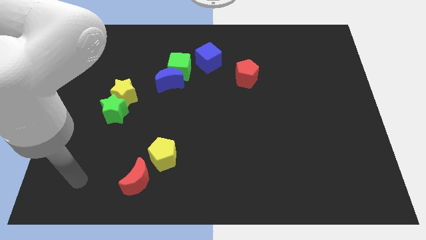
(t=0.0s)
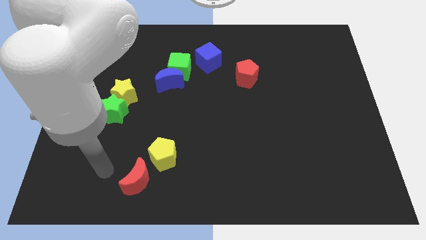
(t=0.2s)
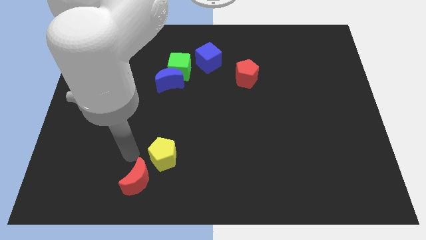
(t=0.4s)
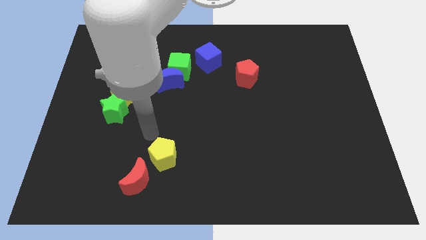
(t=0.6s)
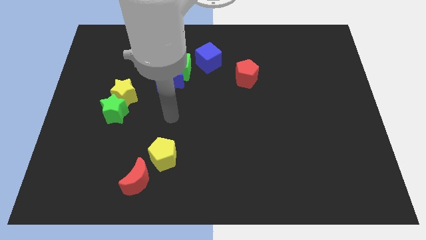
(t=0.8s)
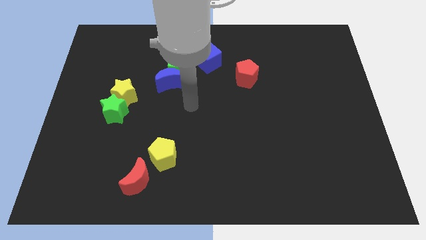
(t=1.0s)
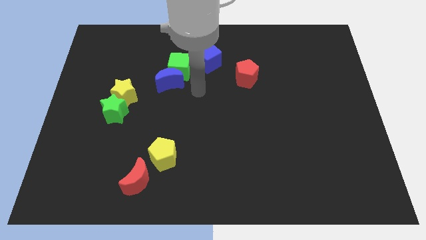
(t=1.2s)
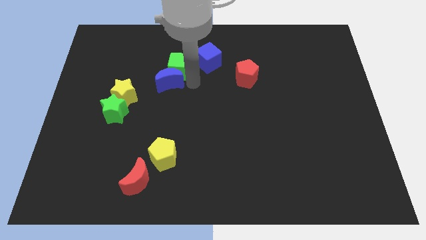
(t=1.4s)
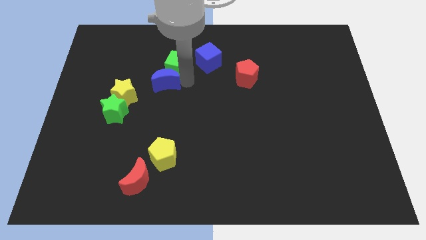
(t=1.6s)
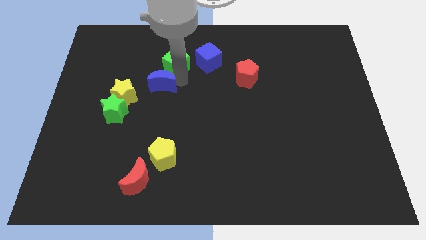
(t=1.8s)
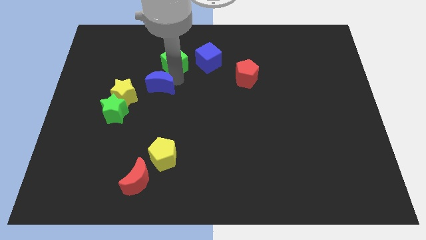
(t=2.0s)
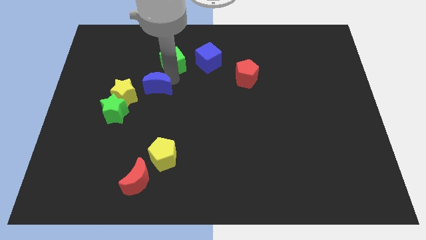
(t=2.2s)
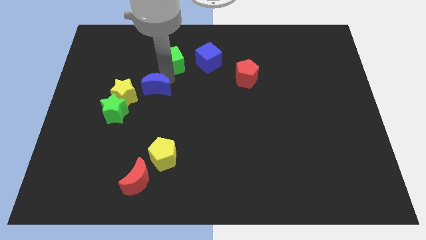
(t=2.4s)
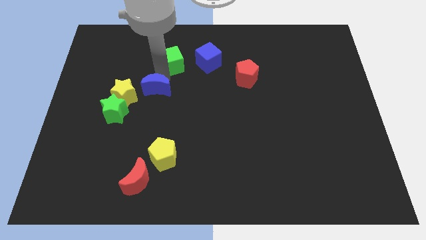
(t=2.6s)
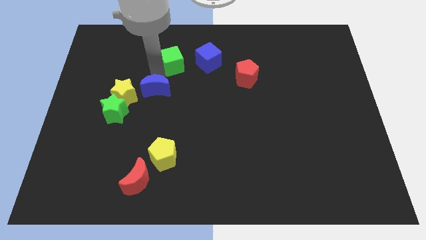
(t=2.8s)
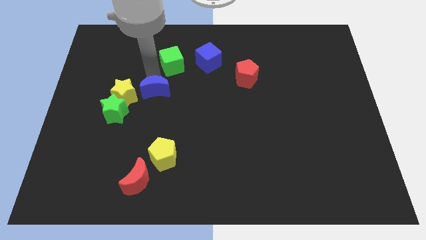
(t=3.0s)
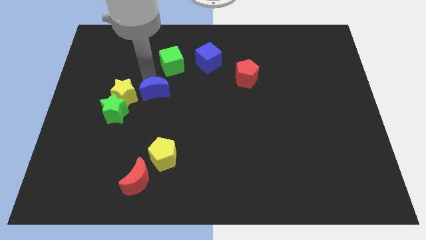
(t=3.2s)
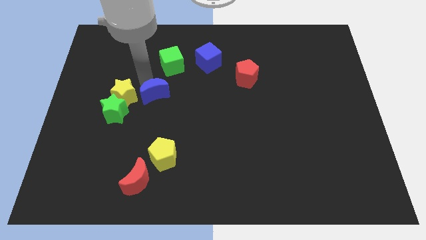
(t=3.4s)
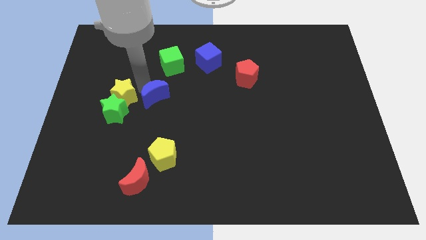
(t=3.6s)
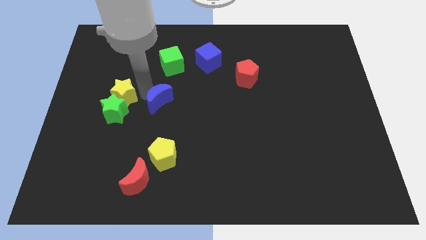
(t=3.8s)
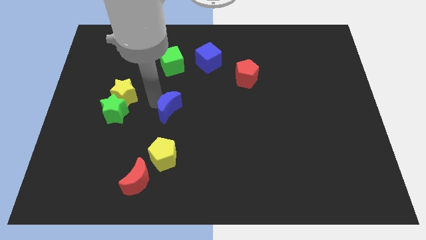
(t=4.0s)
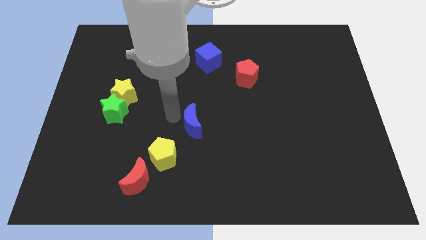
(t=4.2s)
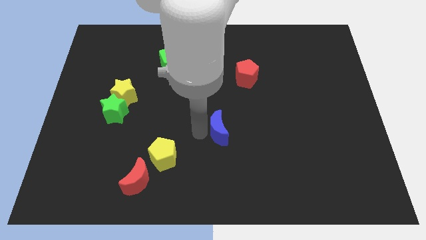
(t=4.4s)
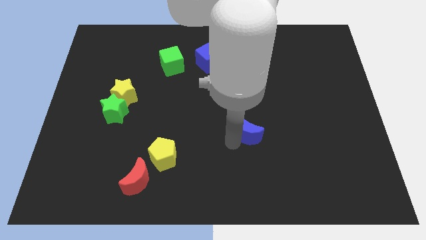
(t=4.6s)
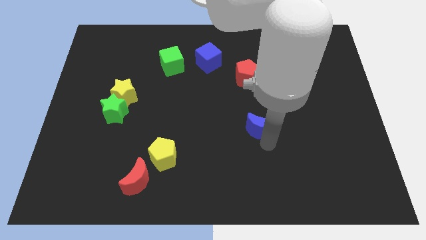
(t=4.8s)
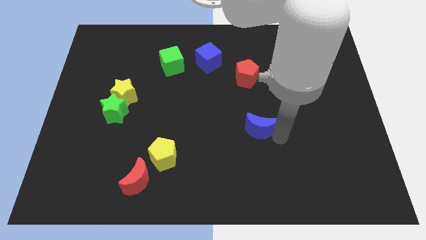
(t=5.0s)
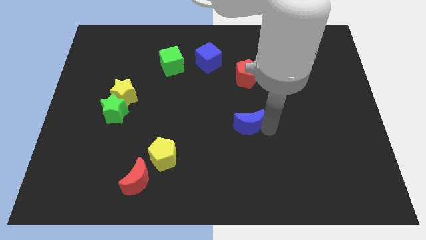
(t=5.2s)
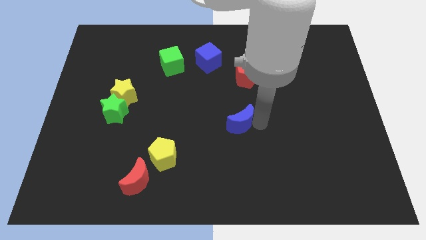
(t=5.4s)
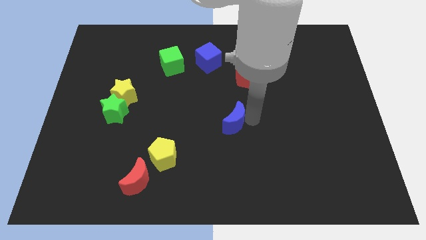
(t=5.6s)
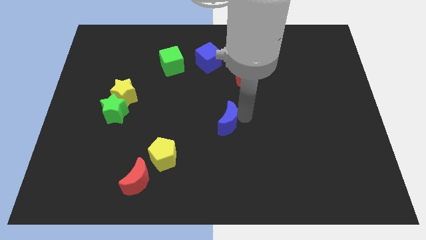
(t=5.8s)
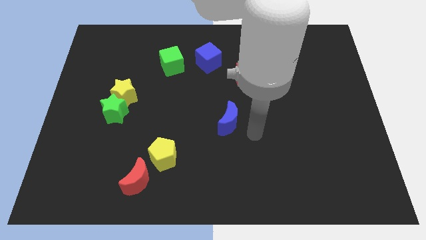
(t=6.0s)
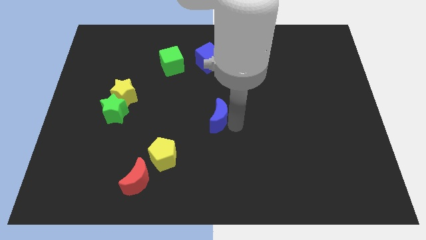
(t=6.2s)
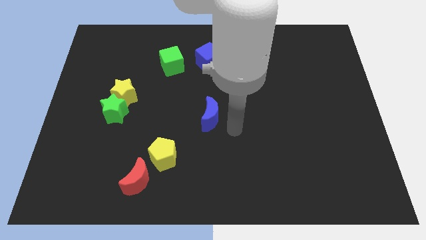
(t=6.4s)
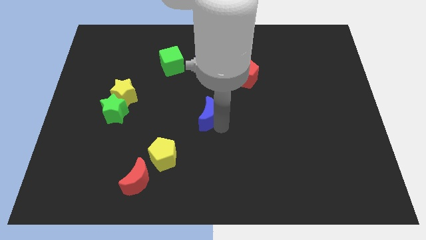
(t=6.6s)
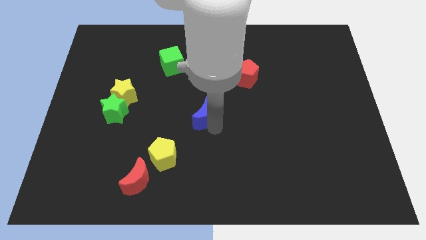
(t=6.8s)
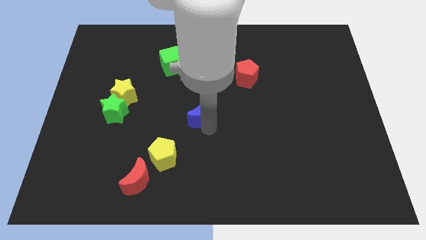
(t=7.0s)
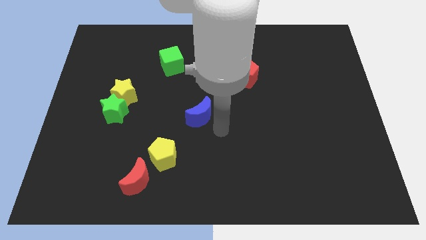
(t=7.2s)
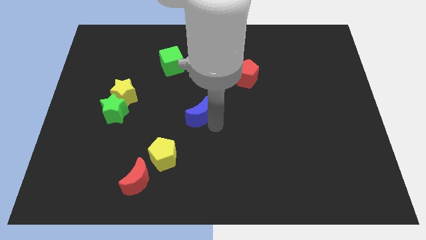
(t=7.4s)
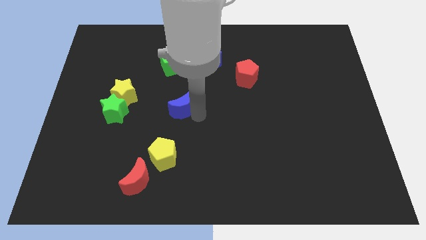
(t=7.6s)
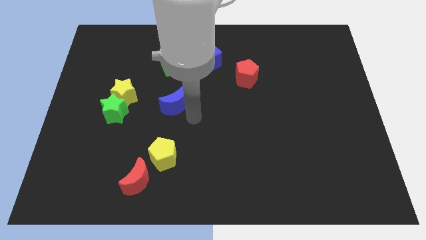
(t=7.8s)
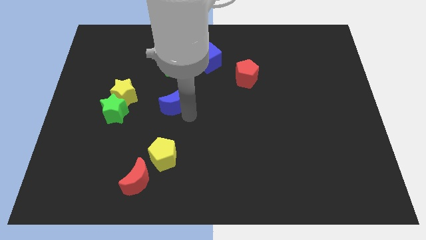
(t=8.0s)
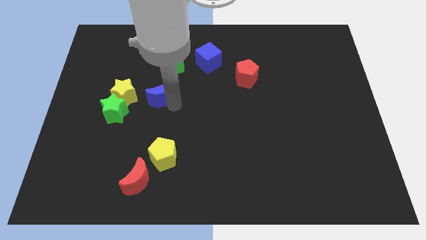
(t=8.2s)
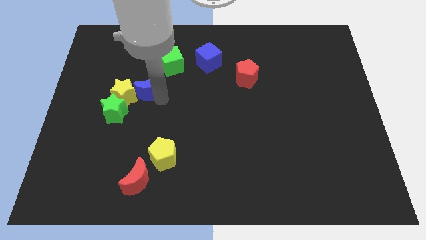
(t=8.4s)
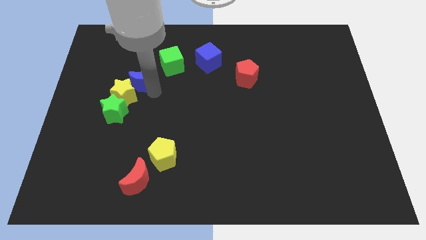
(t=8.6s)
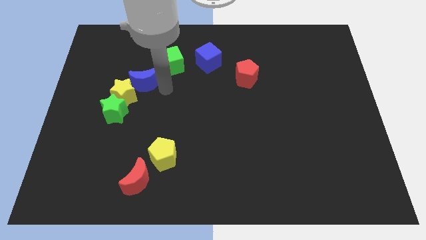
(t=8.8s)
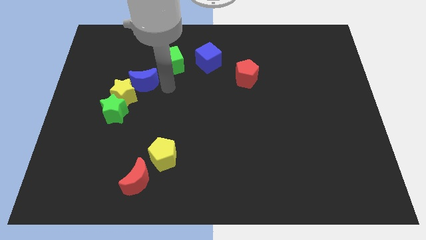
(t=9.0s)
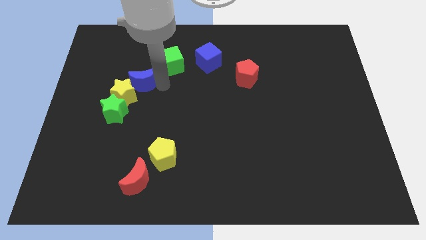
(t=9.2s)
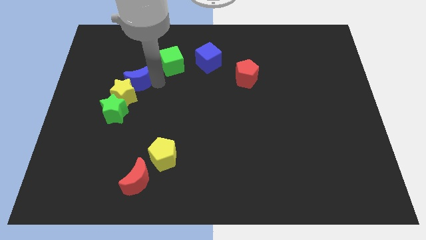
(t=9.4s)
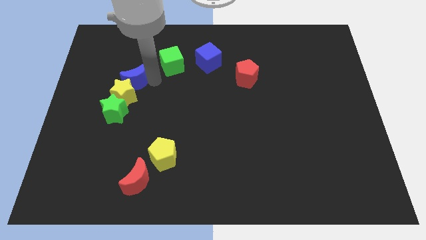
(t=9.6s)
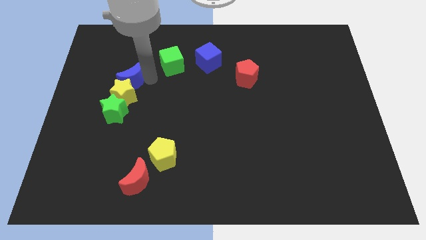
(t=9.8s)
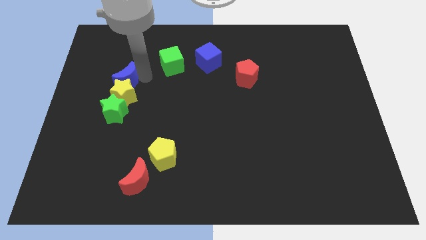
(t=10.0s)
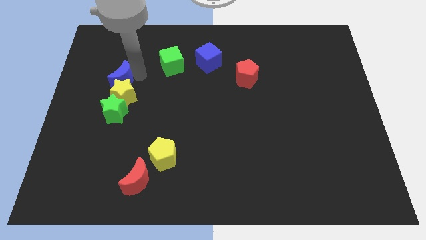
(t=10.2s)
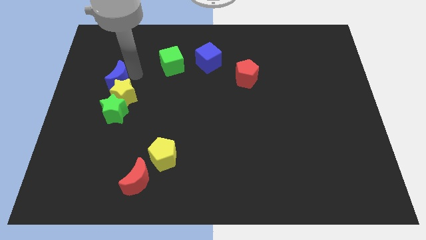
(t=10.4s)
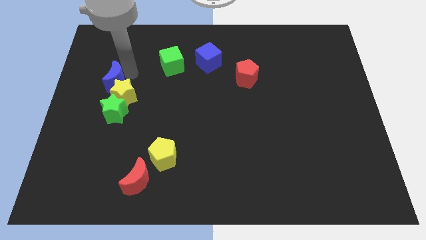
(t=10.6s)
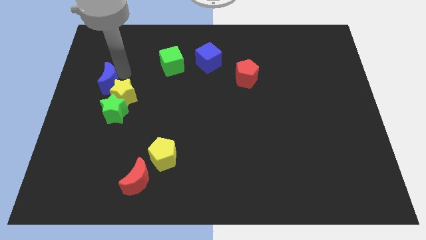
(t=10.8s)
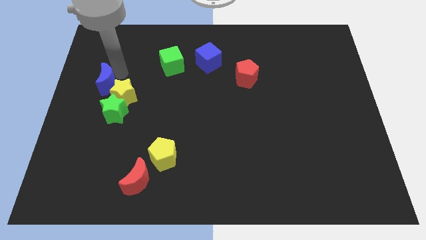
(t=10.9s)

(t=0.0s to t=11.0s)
move the blue moon to the center left
